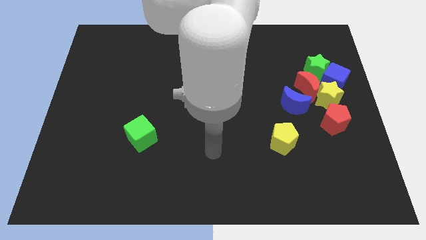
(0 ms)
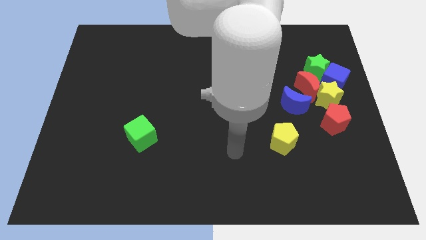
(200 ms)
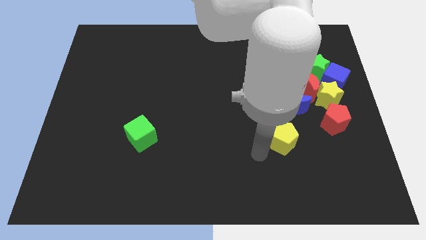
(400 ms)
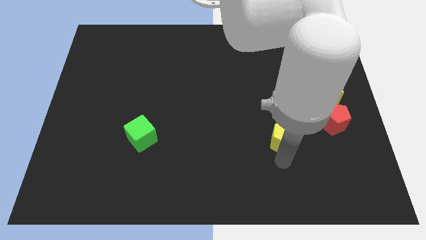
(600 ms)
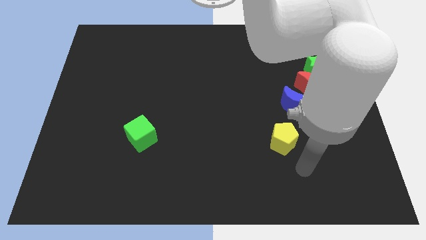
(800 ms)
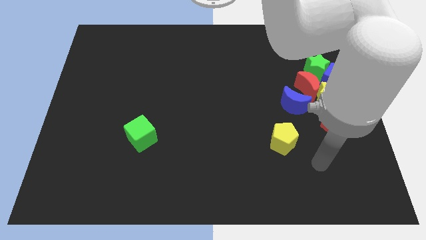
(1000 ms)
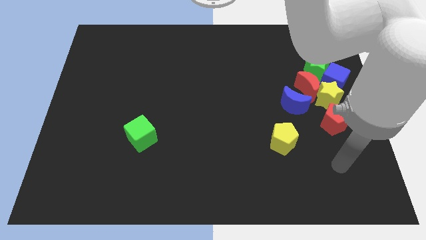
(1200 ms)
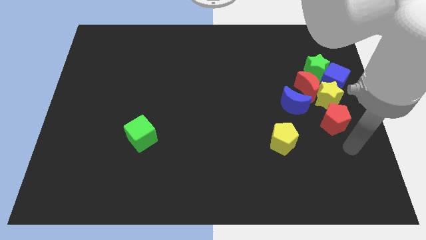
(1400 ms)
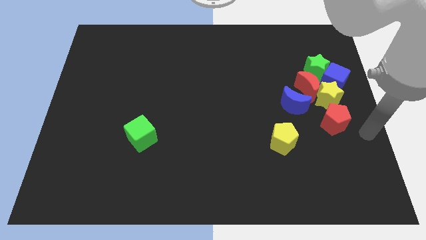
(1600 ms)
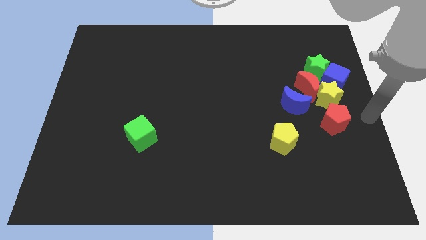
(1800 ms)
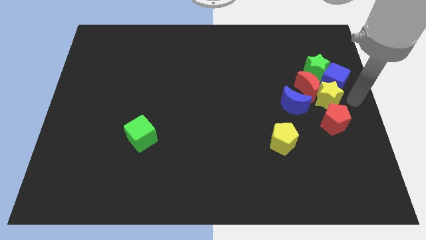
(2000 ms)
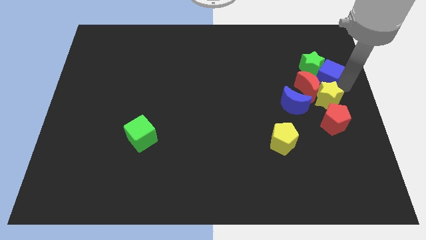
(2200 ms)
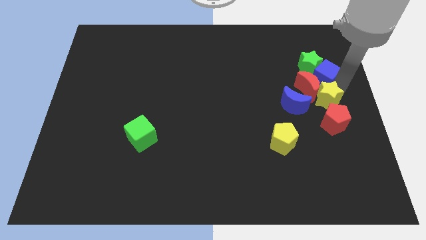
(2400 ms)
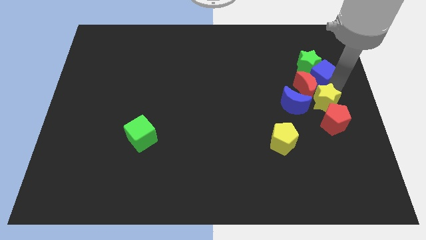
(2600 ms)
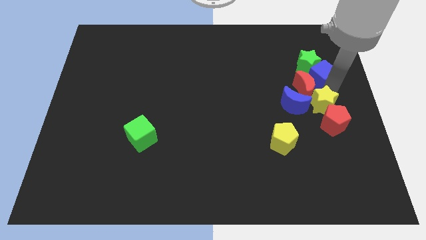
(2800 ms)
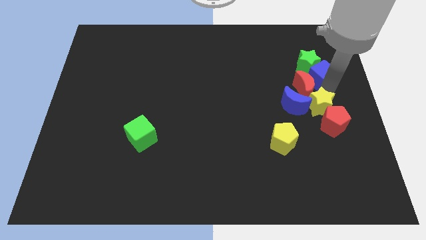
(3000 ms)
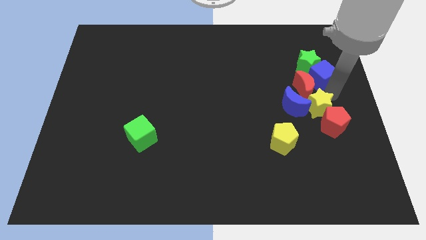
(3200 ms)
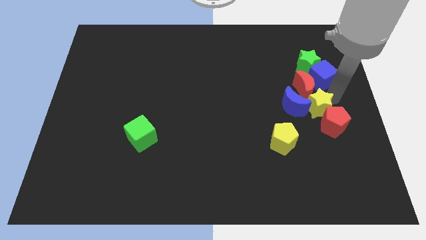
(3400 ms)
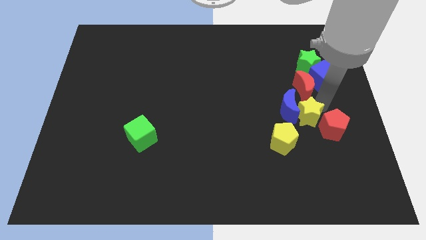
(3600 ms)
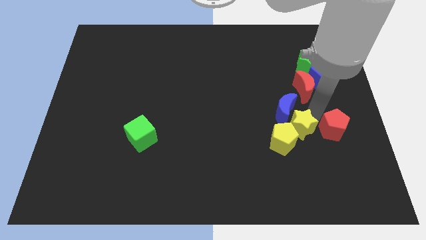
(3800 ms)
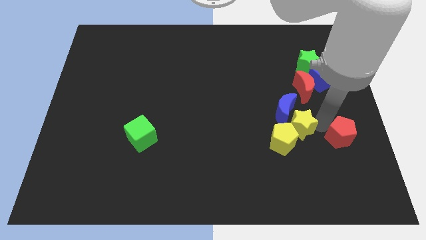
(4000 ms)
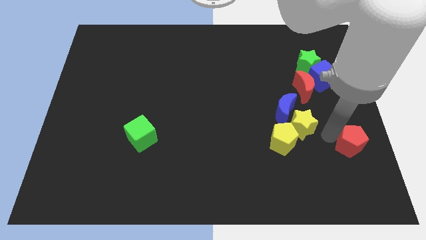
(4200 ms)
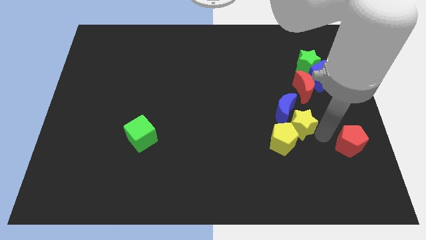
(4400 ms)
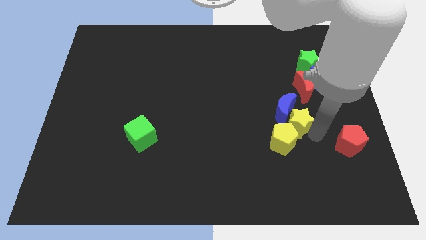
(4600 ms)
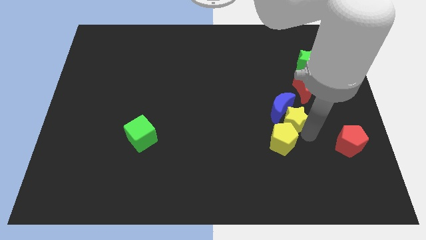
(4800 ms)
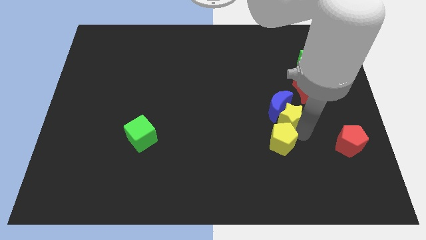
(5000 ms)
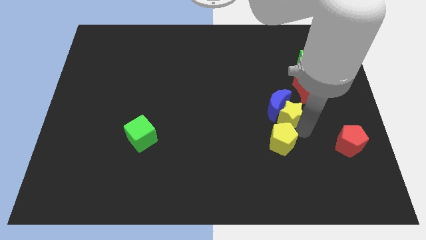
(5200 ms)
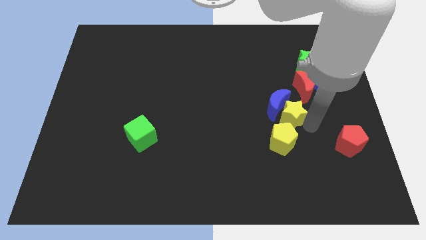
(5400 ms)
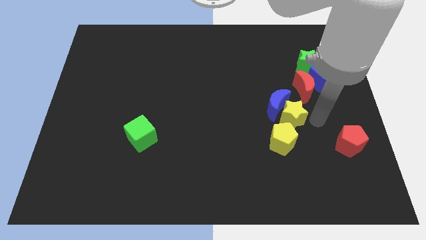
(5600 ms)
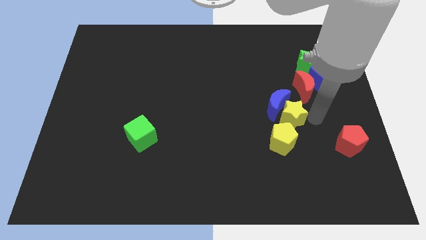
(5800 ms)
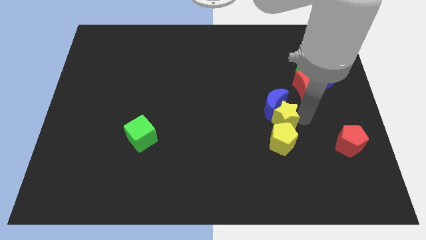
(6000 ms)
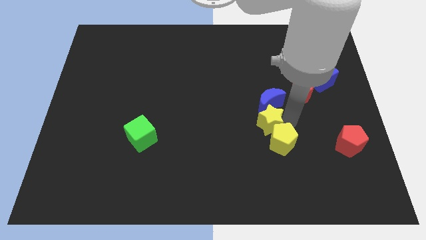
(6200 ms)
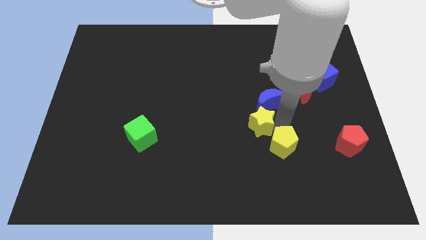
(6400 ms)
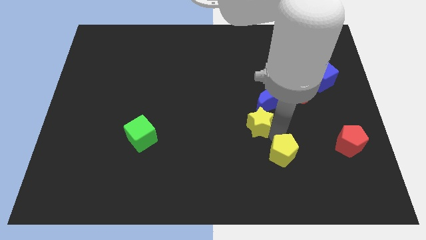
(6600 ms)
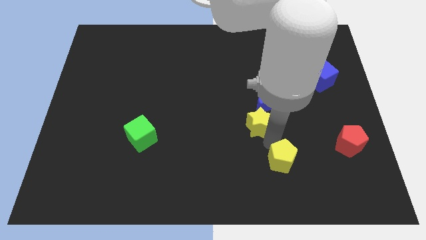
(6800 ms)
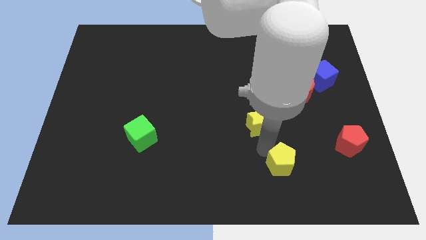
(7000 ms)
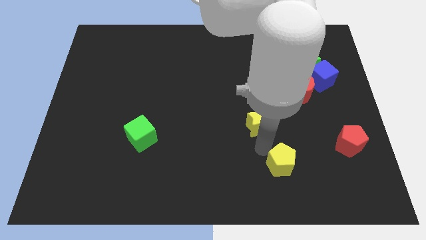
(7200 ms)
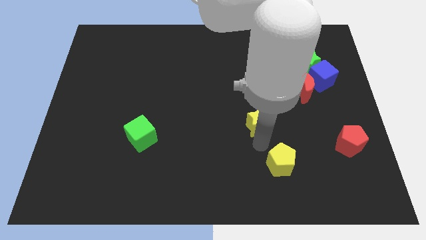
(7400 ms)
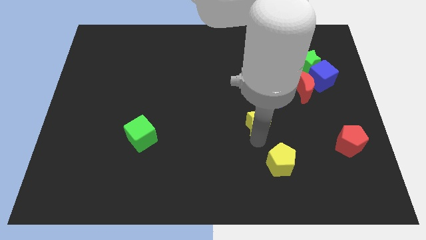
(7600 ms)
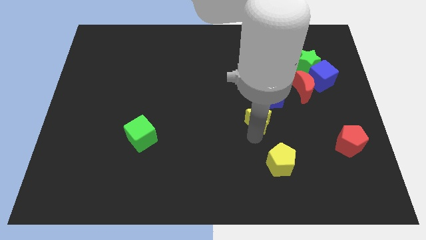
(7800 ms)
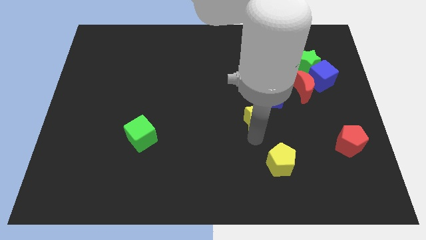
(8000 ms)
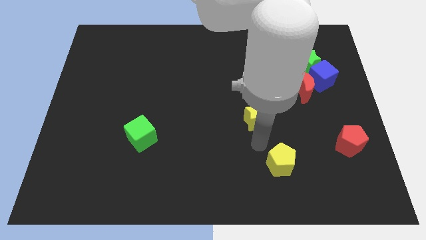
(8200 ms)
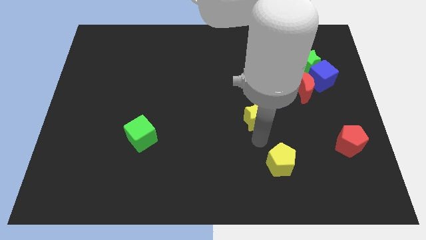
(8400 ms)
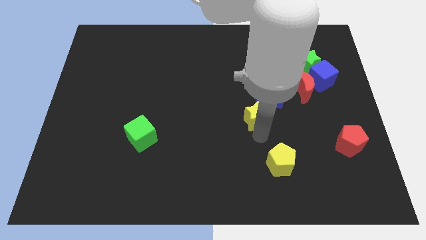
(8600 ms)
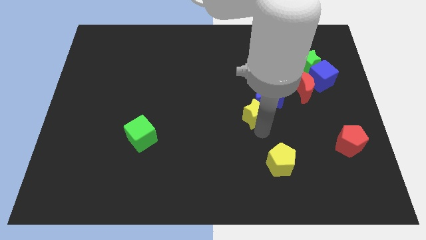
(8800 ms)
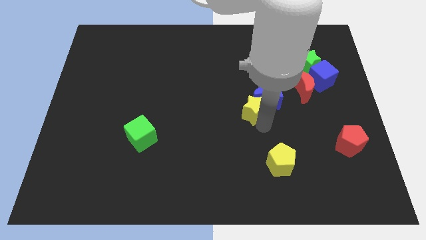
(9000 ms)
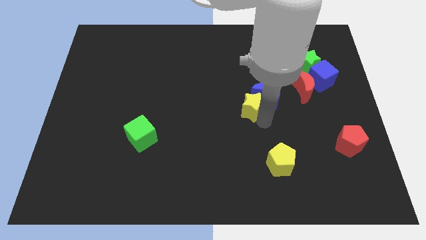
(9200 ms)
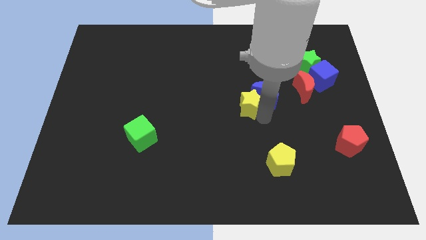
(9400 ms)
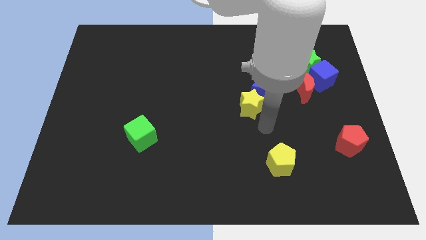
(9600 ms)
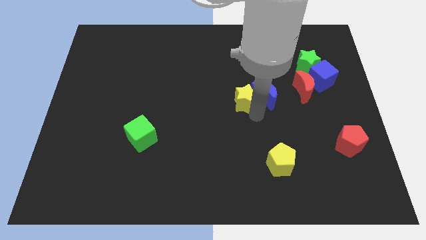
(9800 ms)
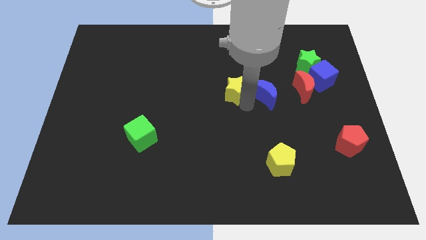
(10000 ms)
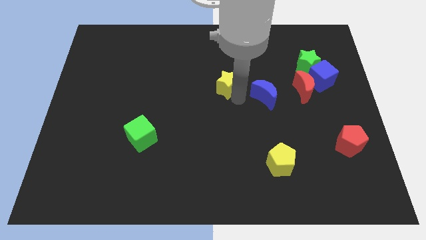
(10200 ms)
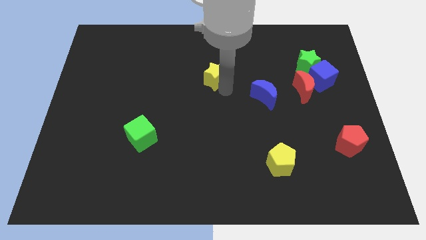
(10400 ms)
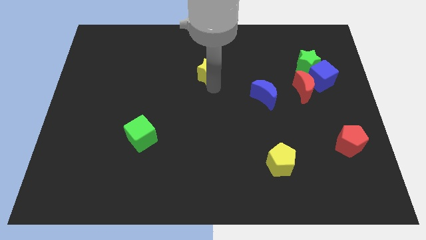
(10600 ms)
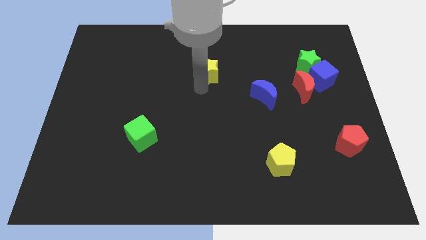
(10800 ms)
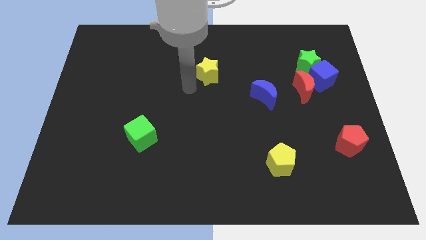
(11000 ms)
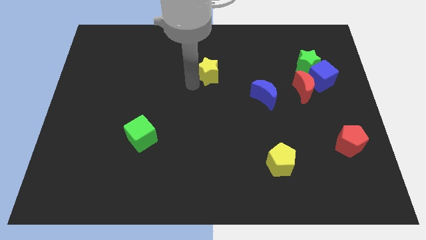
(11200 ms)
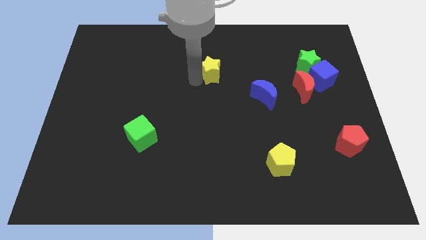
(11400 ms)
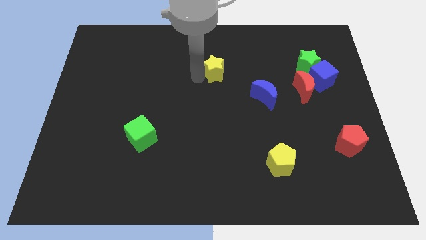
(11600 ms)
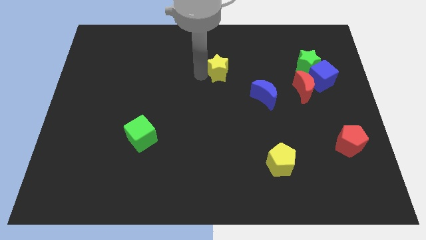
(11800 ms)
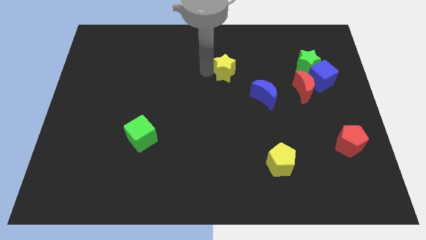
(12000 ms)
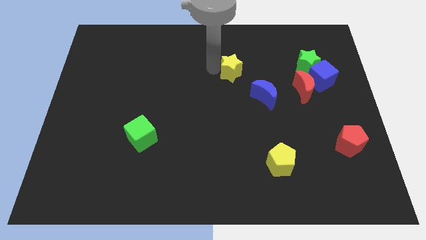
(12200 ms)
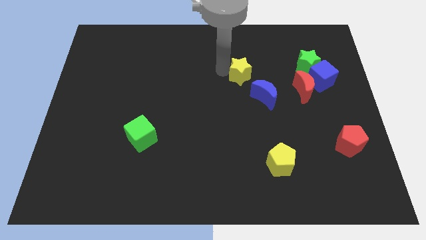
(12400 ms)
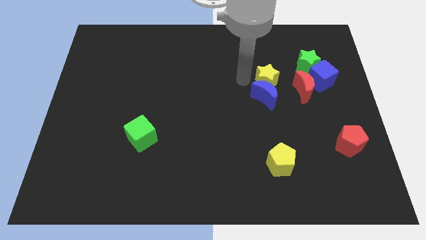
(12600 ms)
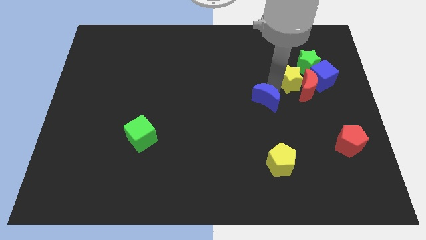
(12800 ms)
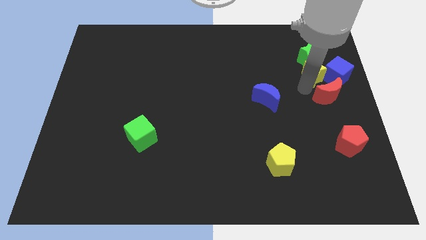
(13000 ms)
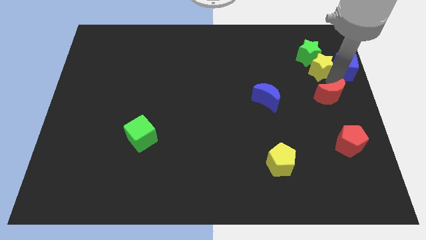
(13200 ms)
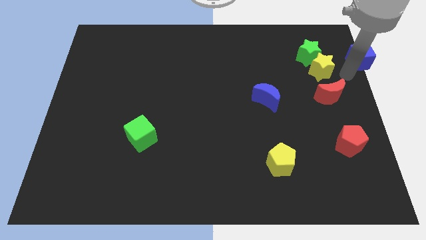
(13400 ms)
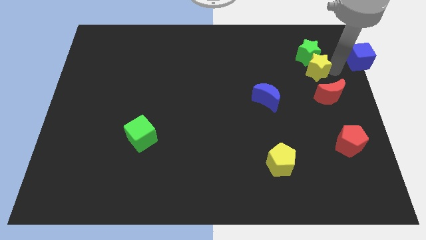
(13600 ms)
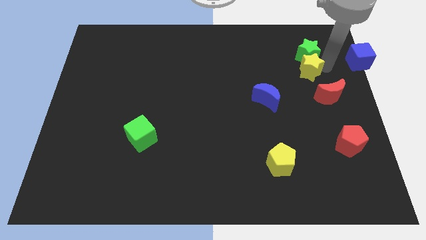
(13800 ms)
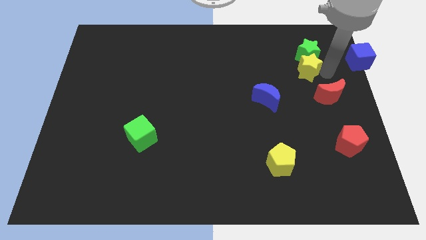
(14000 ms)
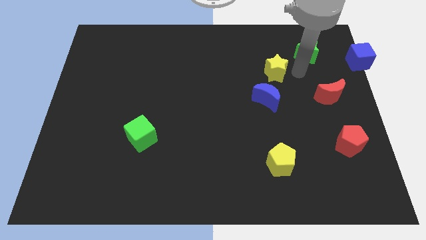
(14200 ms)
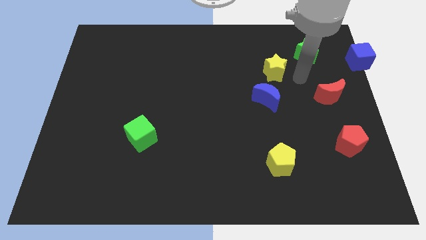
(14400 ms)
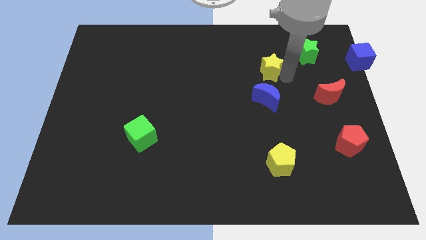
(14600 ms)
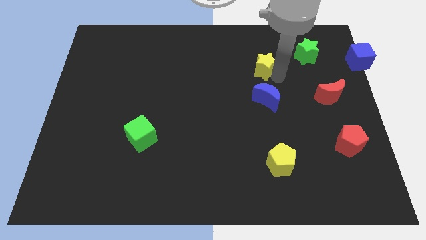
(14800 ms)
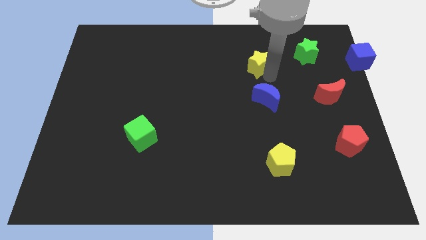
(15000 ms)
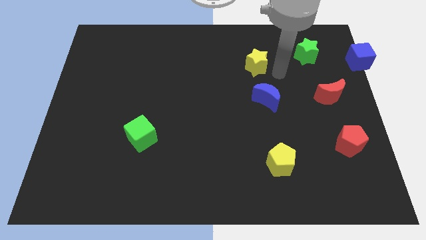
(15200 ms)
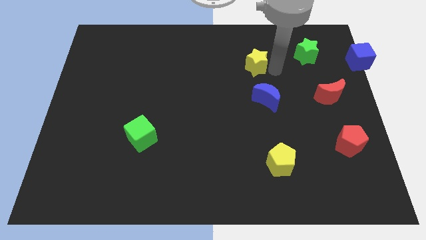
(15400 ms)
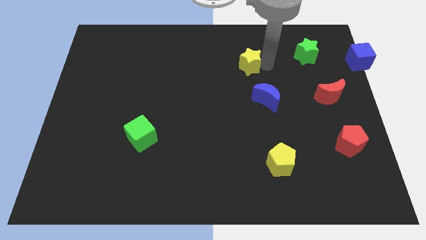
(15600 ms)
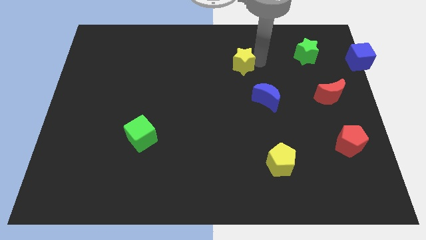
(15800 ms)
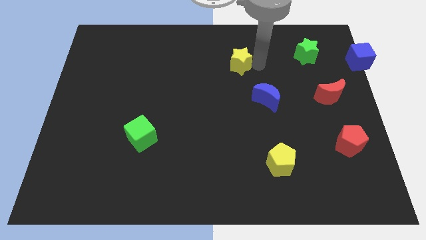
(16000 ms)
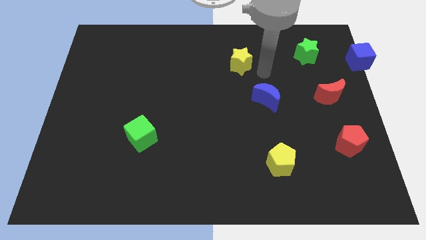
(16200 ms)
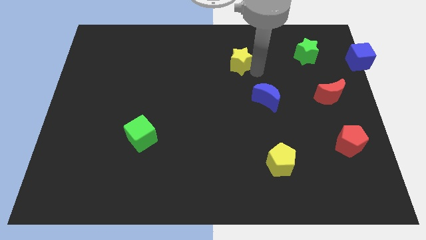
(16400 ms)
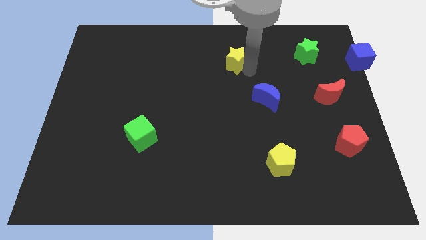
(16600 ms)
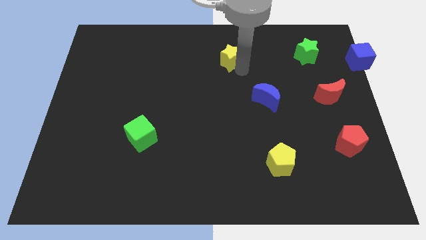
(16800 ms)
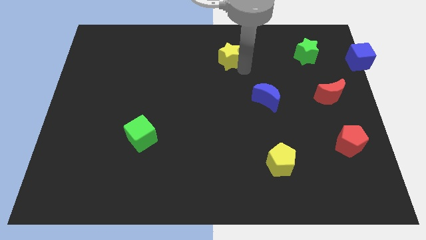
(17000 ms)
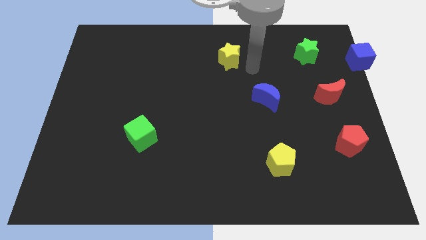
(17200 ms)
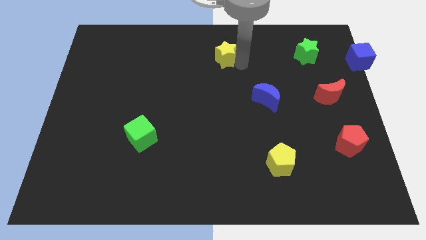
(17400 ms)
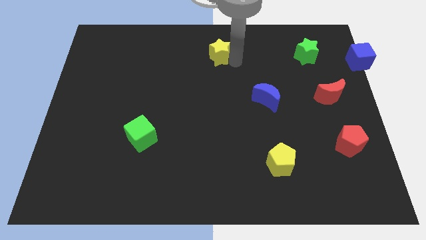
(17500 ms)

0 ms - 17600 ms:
slide the yellow star to the towards your base
